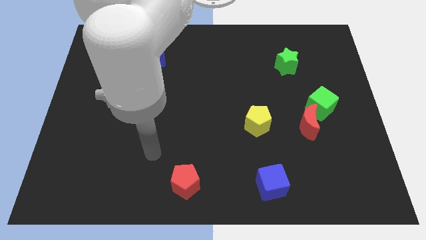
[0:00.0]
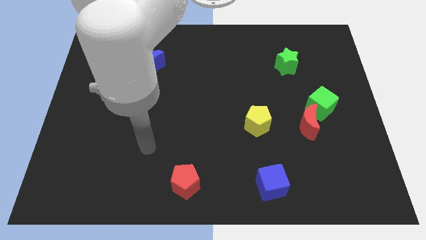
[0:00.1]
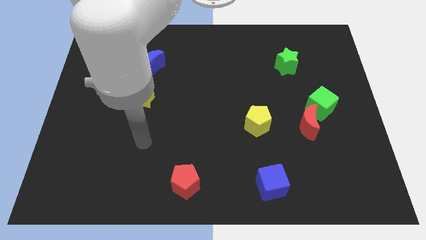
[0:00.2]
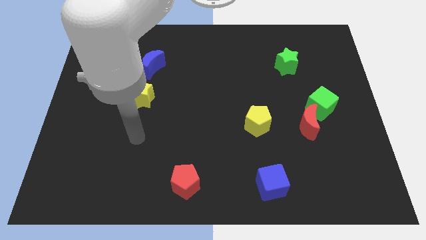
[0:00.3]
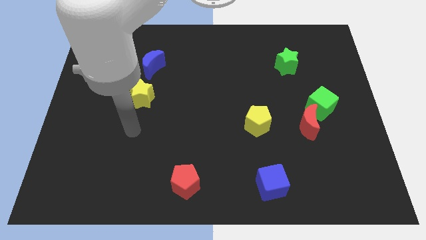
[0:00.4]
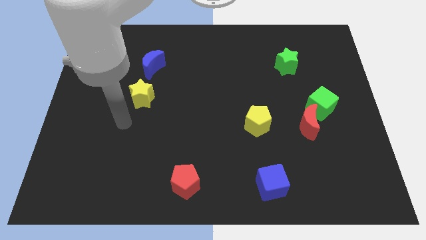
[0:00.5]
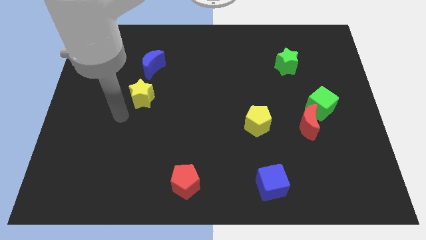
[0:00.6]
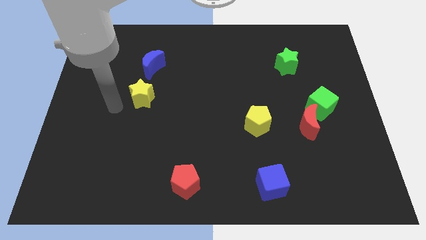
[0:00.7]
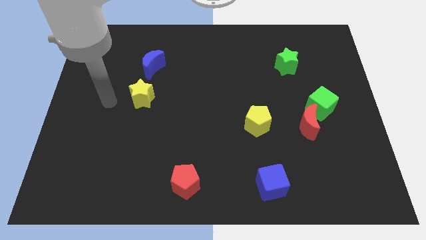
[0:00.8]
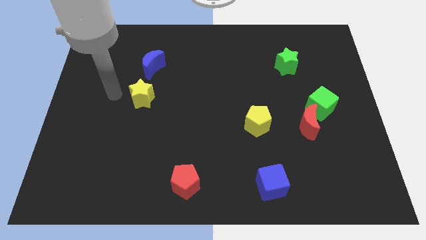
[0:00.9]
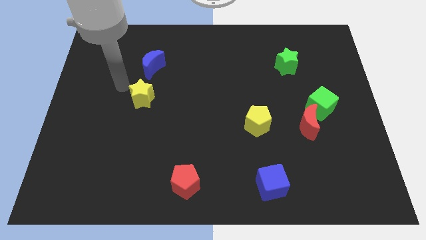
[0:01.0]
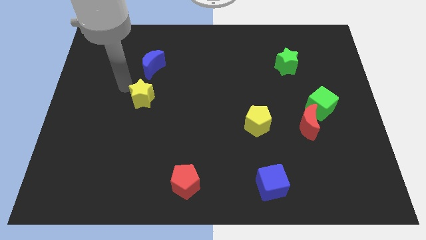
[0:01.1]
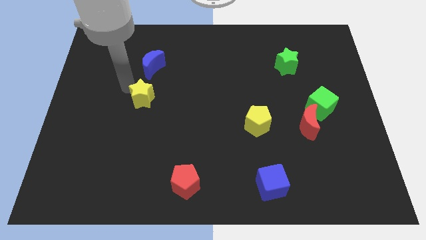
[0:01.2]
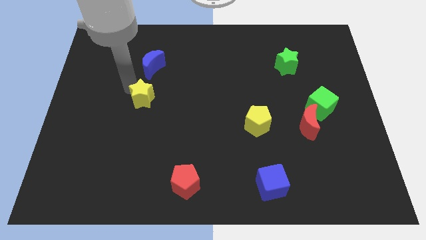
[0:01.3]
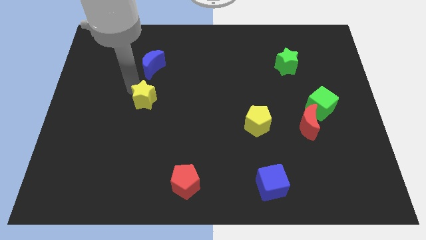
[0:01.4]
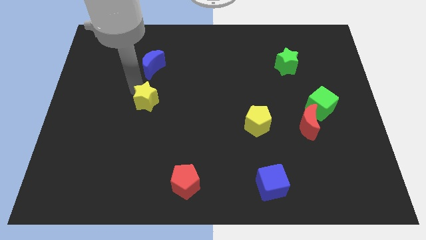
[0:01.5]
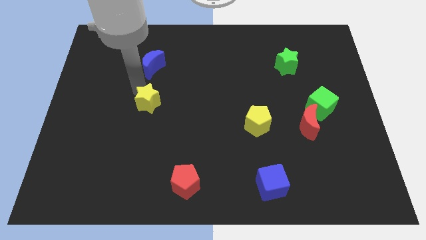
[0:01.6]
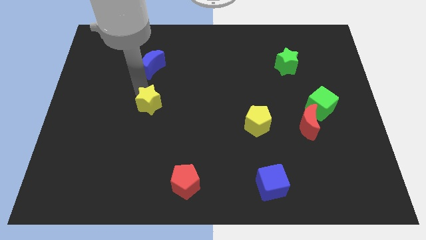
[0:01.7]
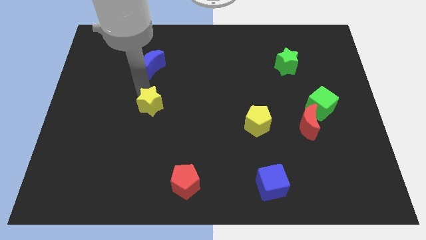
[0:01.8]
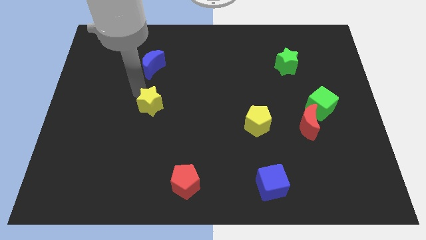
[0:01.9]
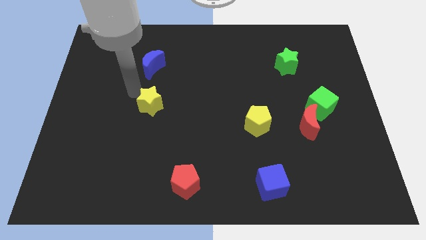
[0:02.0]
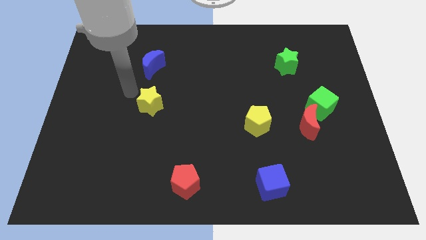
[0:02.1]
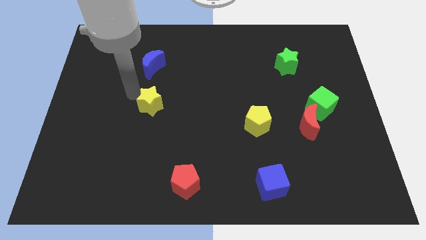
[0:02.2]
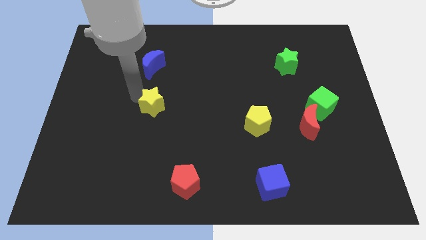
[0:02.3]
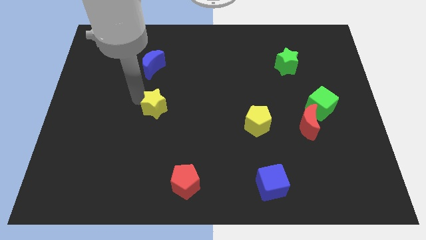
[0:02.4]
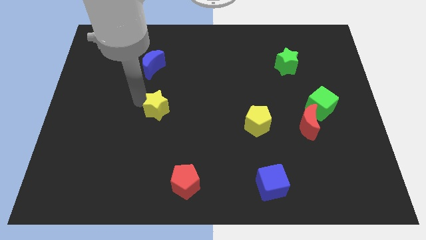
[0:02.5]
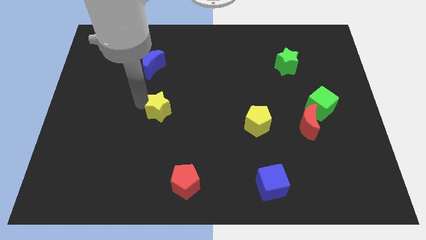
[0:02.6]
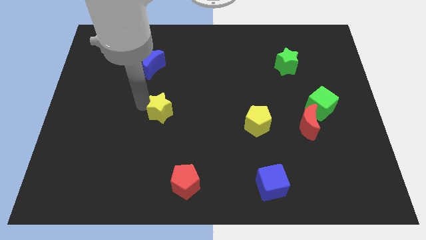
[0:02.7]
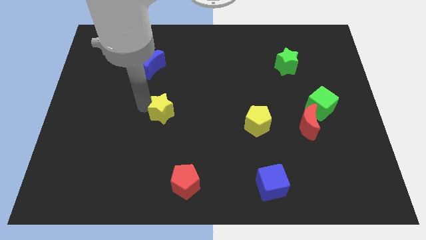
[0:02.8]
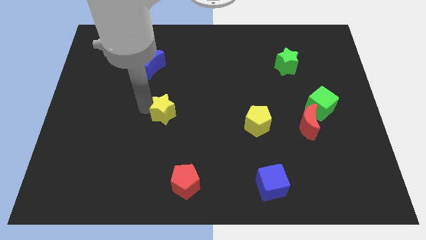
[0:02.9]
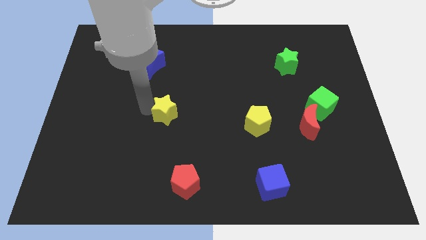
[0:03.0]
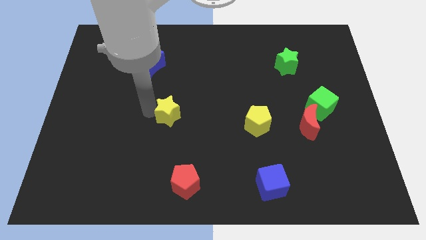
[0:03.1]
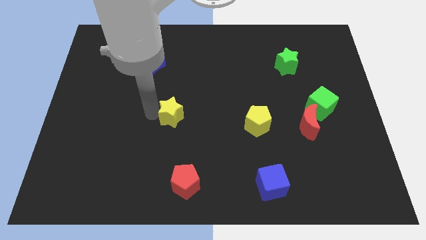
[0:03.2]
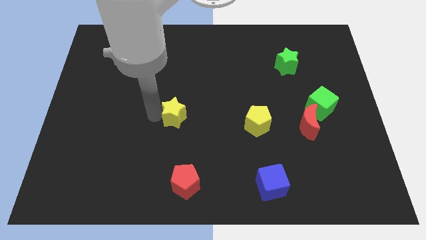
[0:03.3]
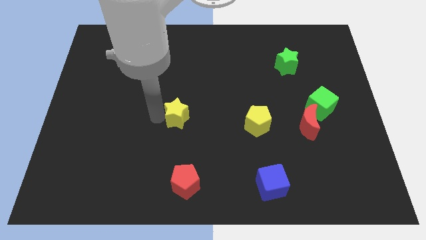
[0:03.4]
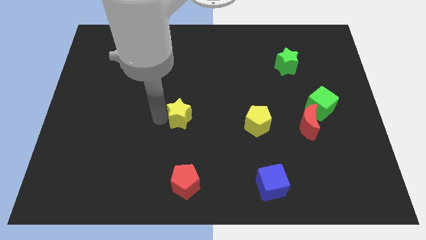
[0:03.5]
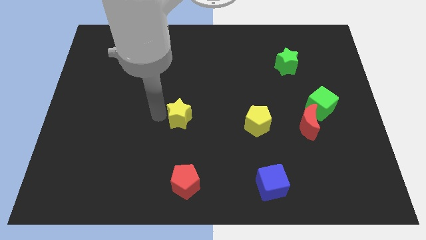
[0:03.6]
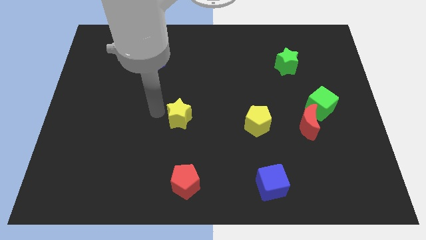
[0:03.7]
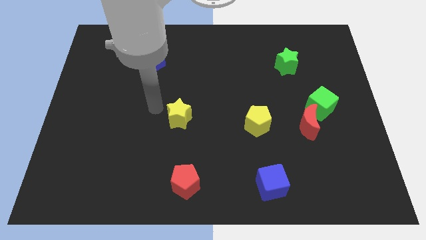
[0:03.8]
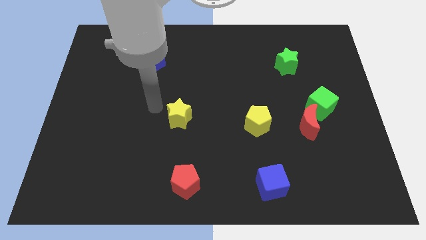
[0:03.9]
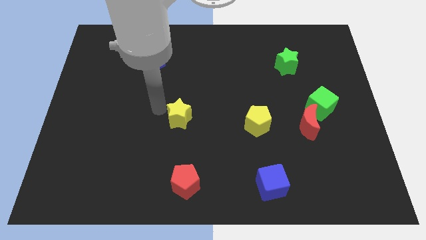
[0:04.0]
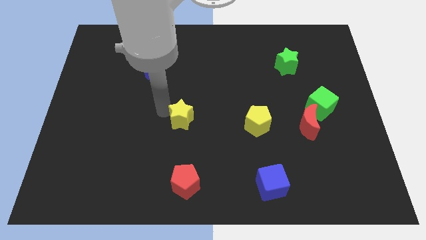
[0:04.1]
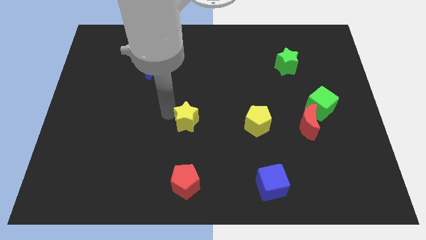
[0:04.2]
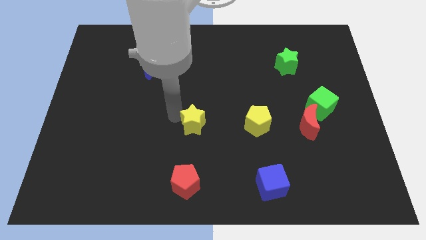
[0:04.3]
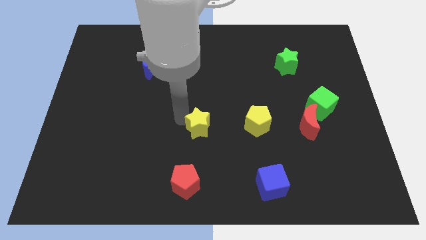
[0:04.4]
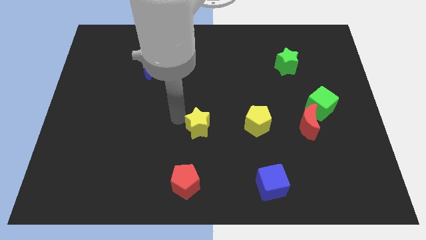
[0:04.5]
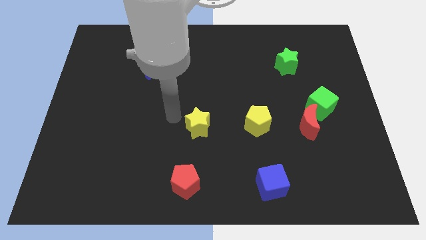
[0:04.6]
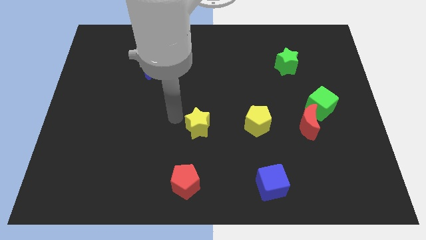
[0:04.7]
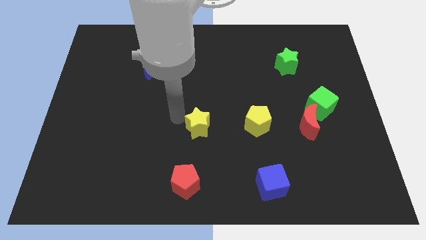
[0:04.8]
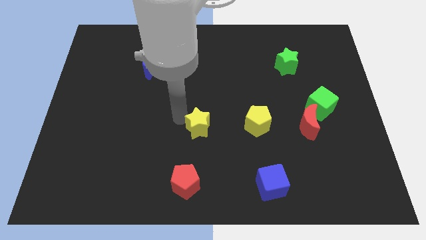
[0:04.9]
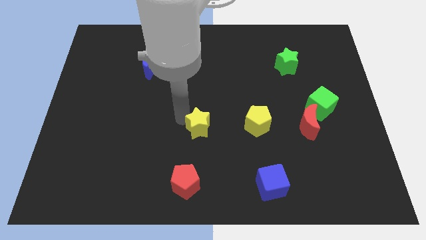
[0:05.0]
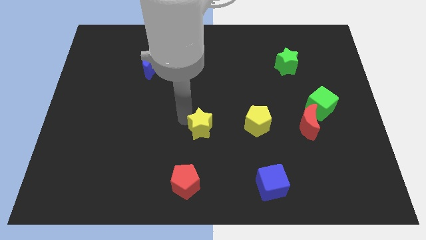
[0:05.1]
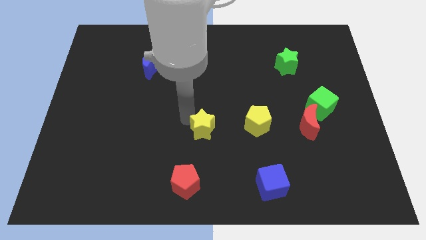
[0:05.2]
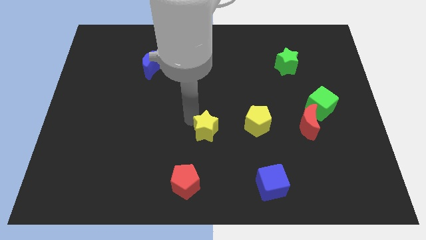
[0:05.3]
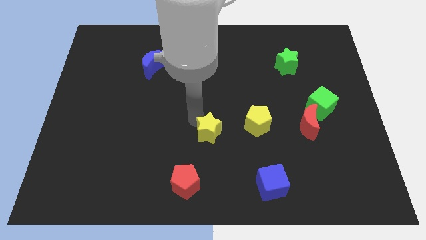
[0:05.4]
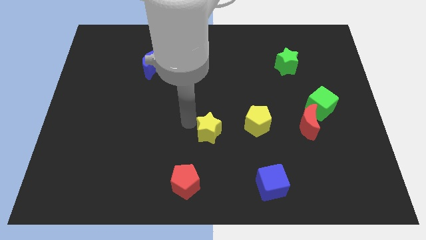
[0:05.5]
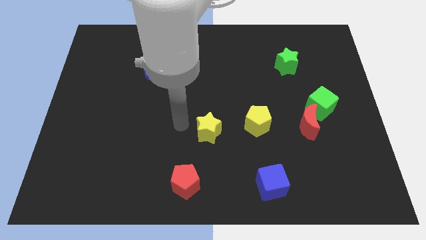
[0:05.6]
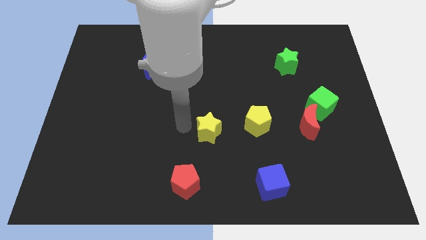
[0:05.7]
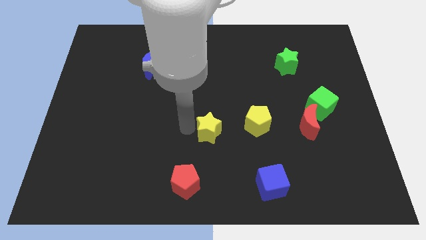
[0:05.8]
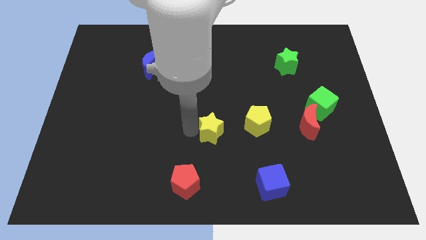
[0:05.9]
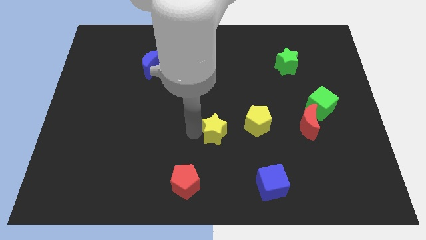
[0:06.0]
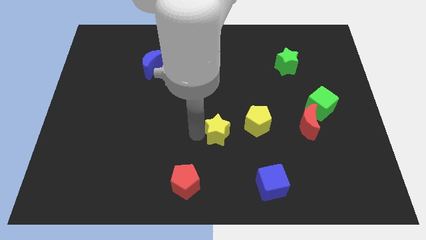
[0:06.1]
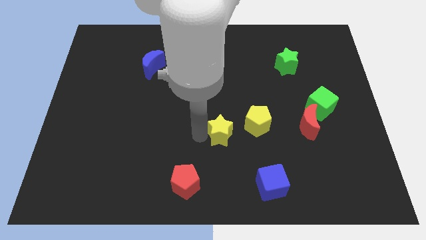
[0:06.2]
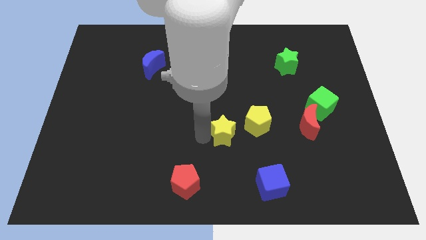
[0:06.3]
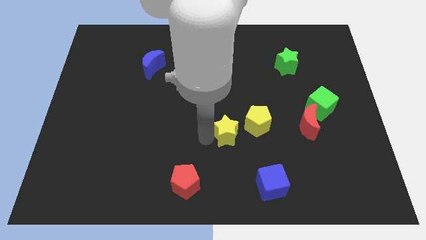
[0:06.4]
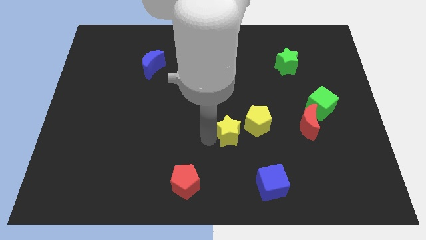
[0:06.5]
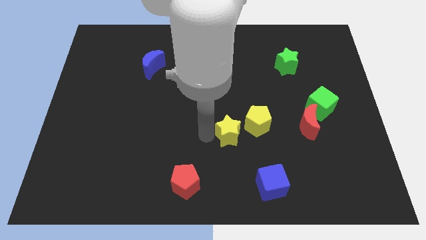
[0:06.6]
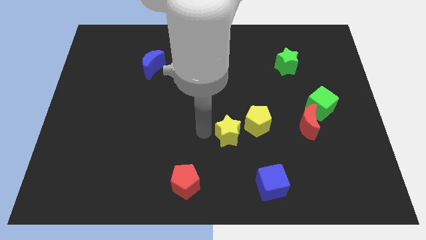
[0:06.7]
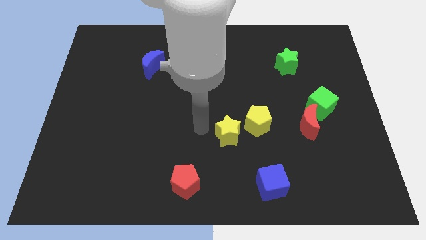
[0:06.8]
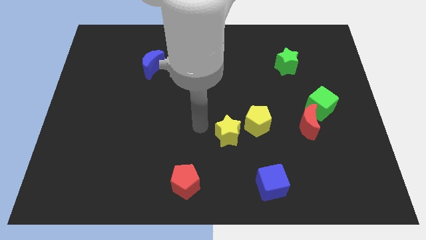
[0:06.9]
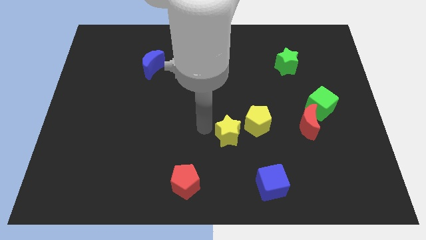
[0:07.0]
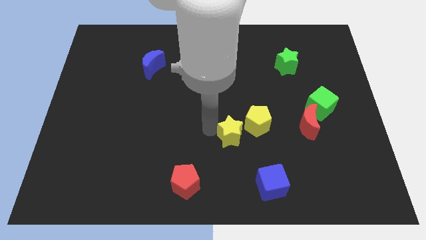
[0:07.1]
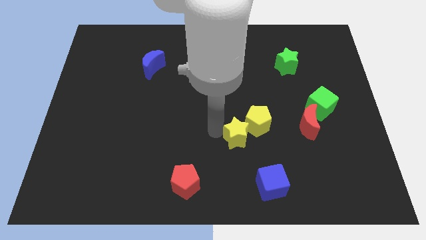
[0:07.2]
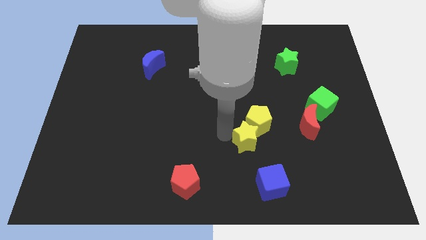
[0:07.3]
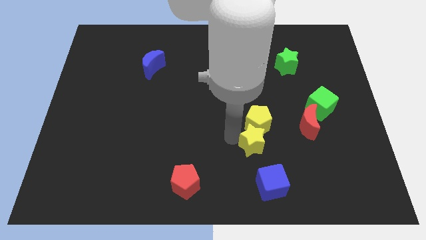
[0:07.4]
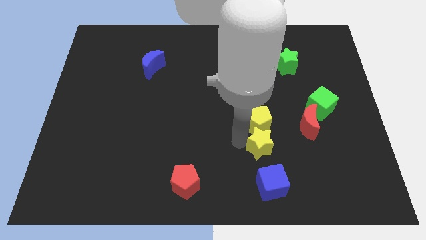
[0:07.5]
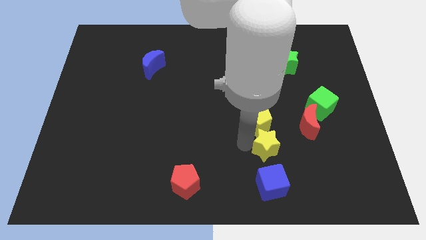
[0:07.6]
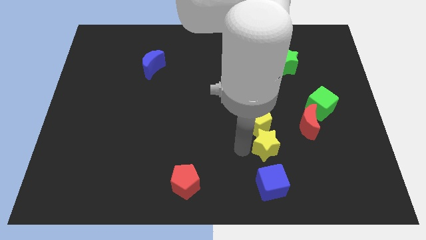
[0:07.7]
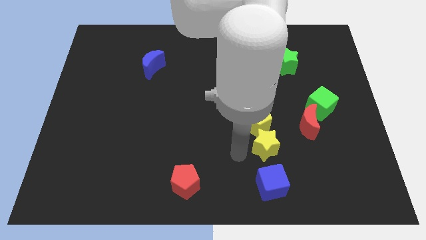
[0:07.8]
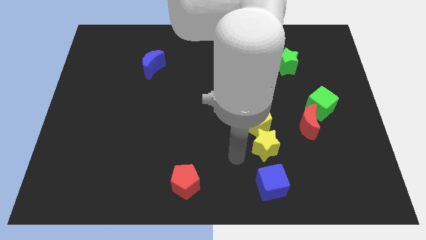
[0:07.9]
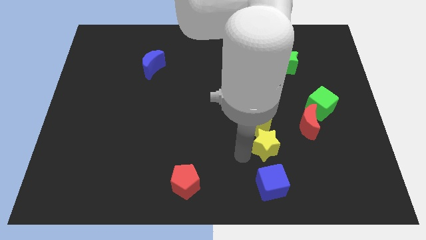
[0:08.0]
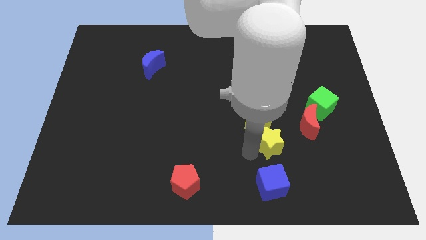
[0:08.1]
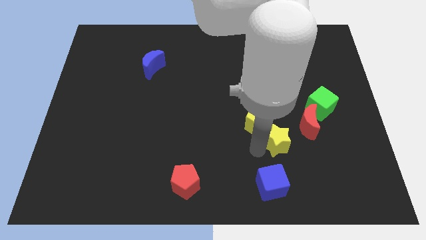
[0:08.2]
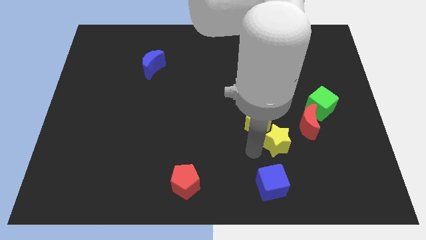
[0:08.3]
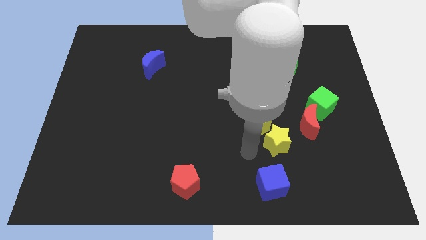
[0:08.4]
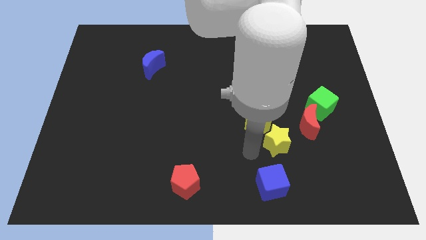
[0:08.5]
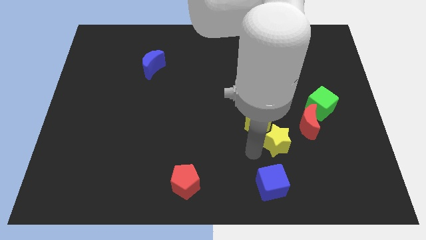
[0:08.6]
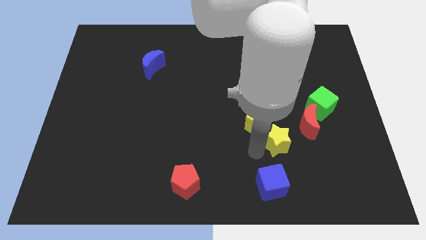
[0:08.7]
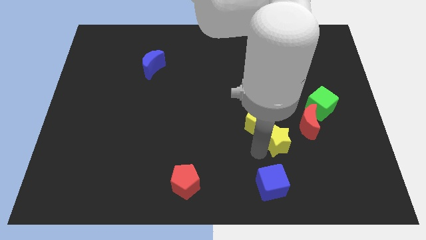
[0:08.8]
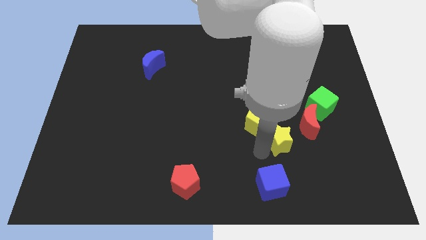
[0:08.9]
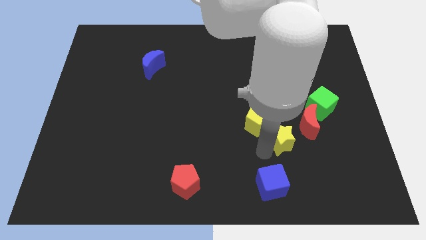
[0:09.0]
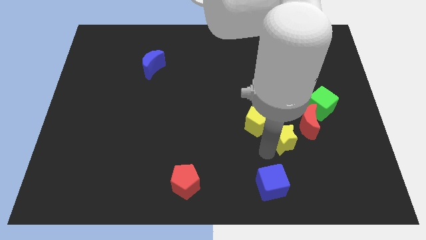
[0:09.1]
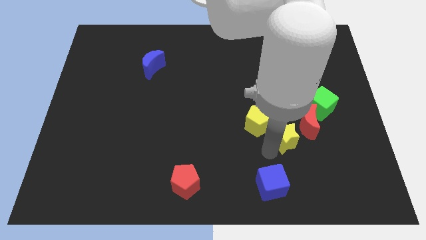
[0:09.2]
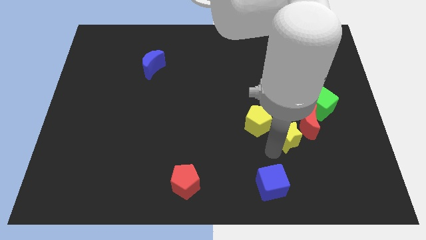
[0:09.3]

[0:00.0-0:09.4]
put the yellow star to the bottom left of the green cube
